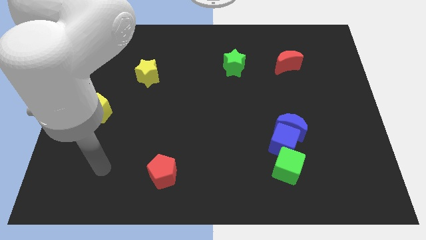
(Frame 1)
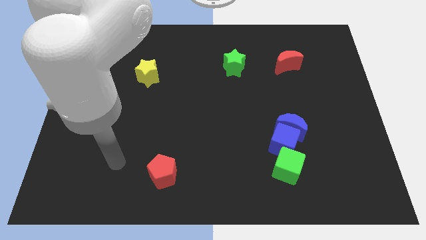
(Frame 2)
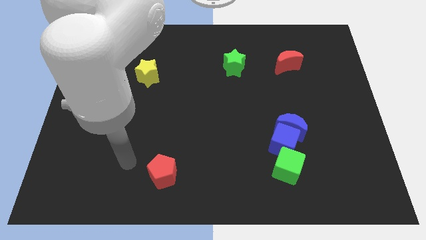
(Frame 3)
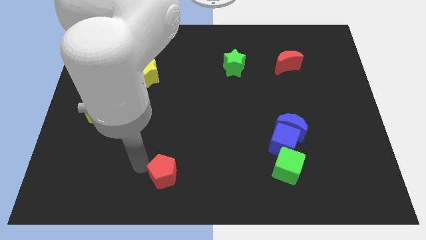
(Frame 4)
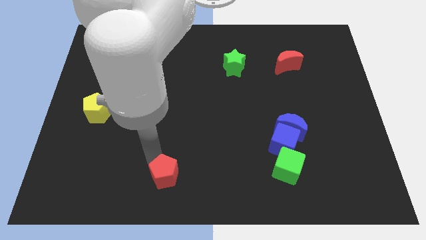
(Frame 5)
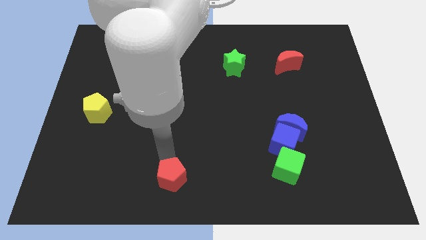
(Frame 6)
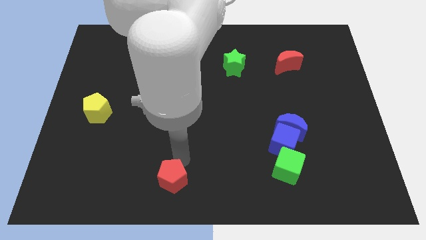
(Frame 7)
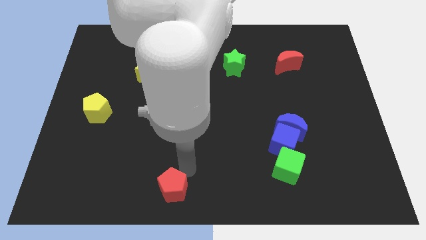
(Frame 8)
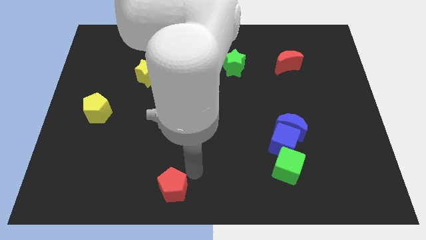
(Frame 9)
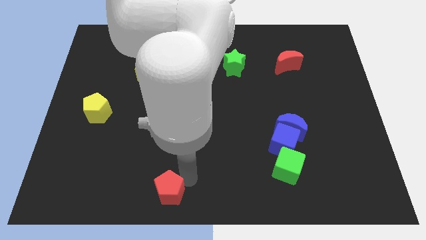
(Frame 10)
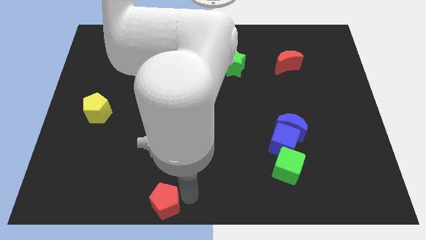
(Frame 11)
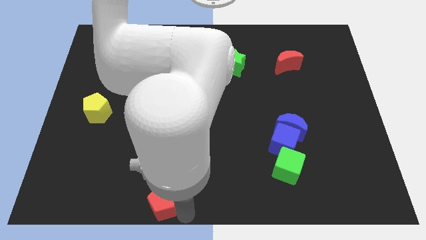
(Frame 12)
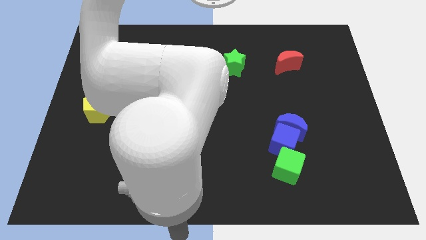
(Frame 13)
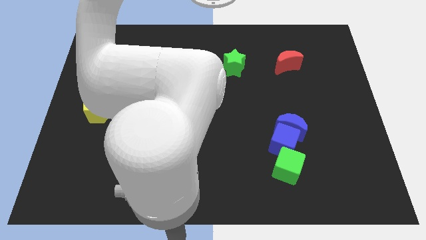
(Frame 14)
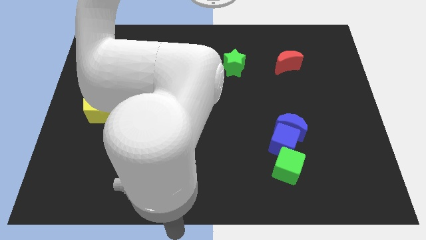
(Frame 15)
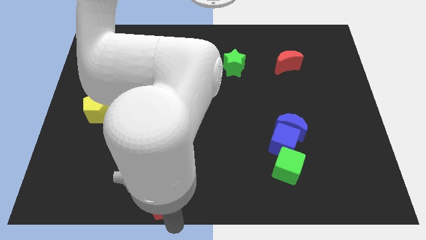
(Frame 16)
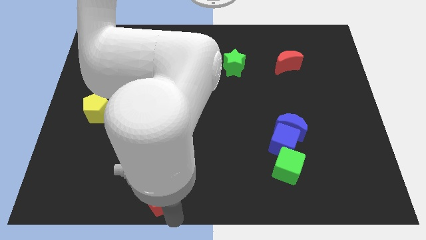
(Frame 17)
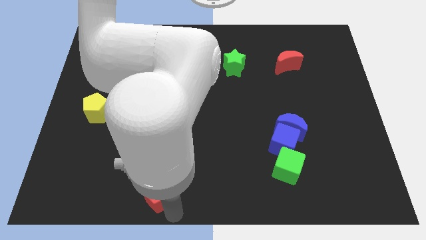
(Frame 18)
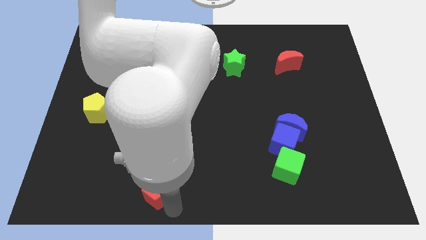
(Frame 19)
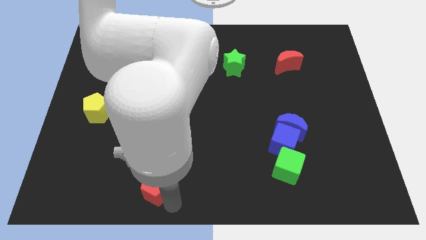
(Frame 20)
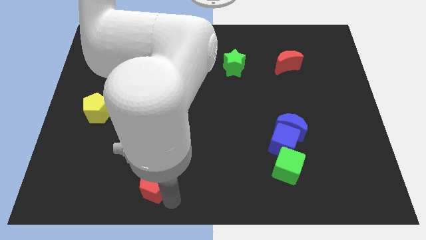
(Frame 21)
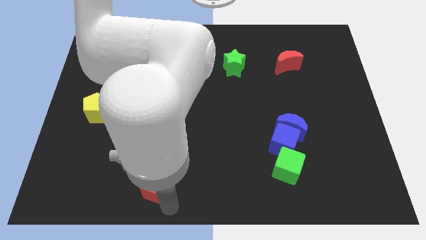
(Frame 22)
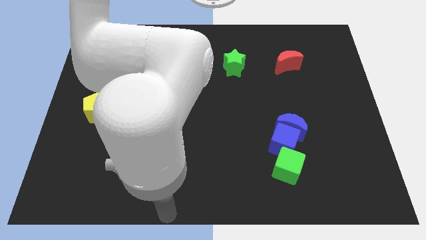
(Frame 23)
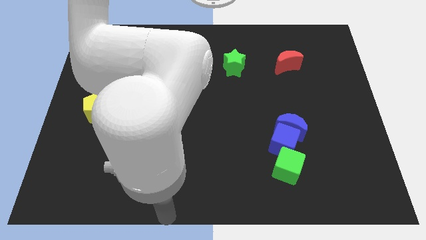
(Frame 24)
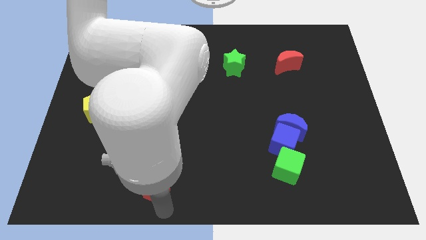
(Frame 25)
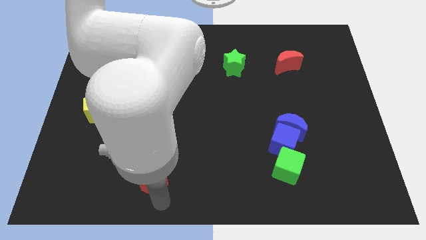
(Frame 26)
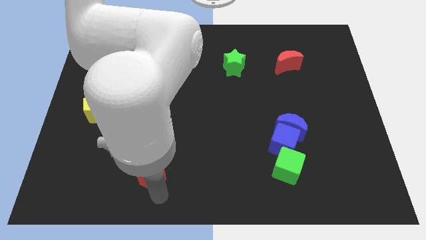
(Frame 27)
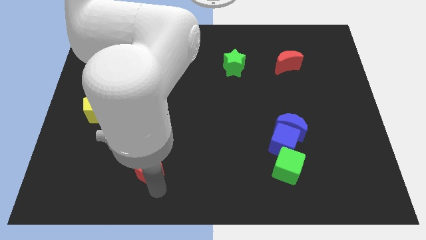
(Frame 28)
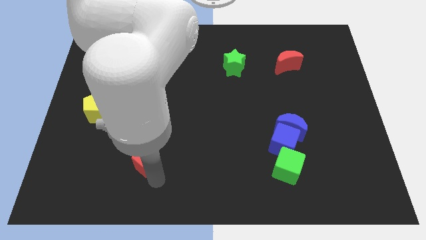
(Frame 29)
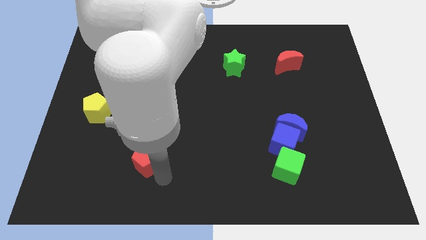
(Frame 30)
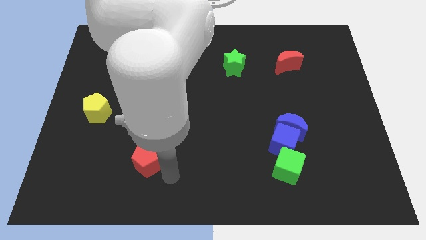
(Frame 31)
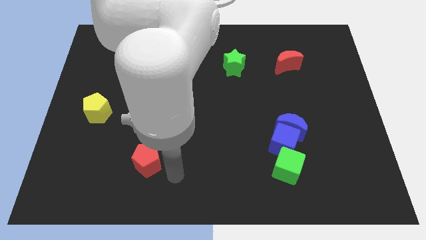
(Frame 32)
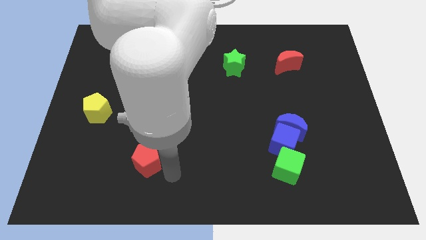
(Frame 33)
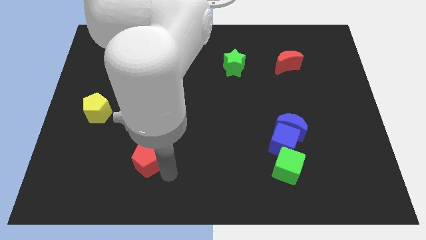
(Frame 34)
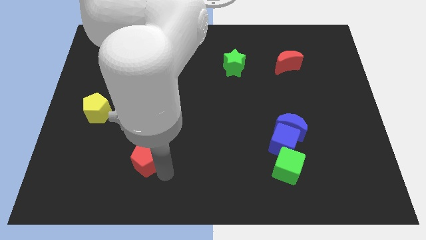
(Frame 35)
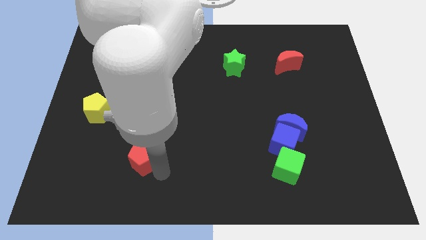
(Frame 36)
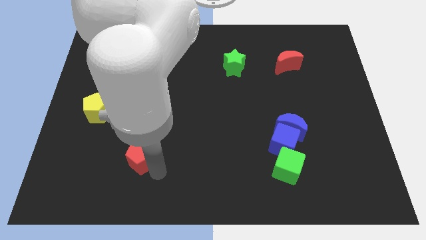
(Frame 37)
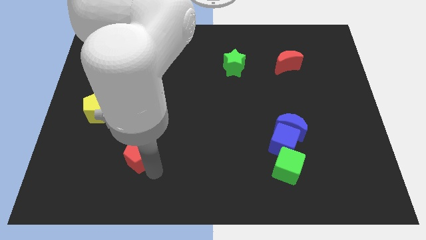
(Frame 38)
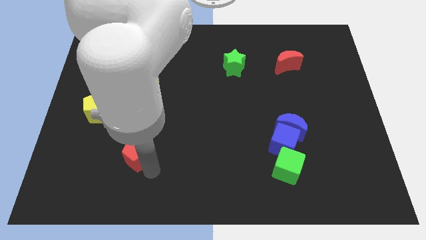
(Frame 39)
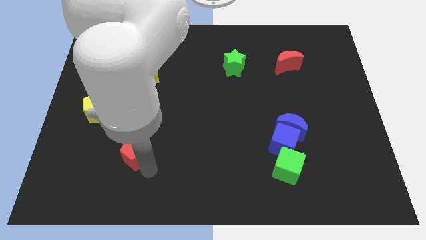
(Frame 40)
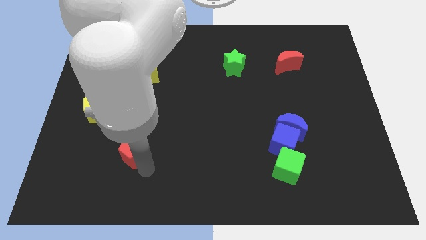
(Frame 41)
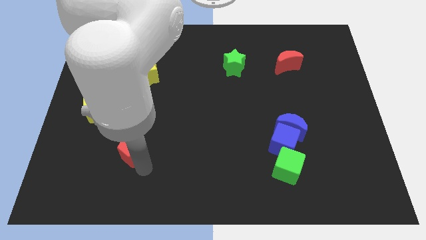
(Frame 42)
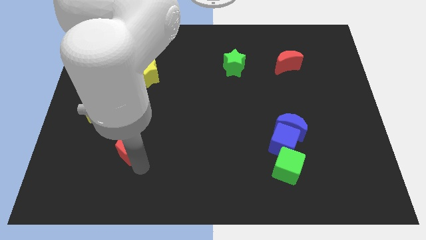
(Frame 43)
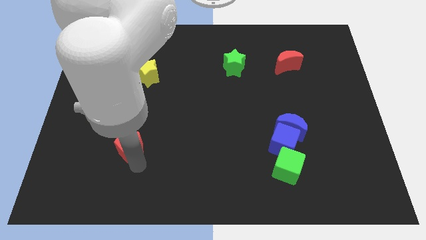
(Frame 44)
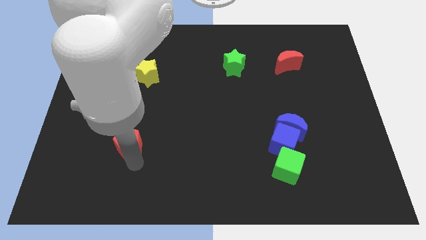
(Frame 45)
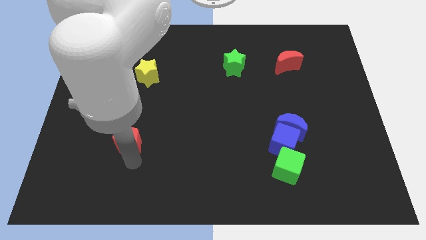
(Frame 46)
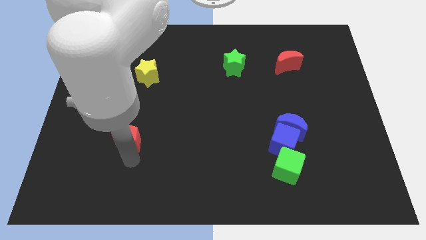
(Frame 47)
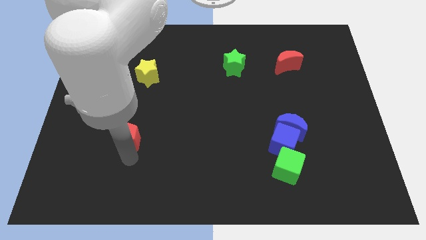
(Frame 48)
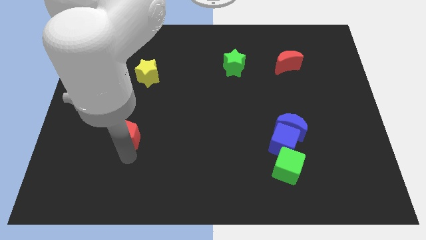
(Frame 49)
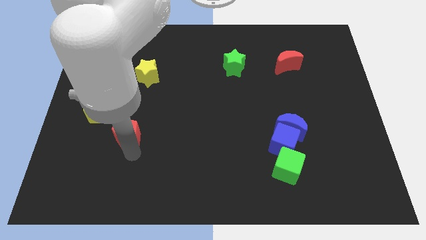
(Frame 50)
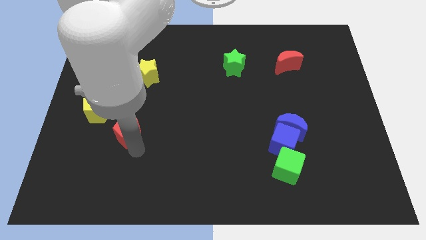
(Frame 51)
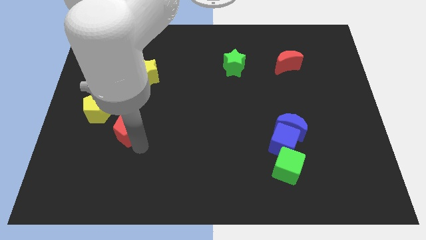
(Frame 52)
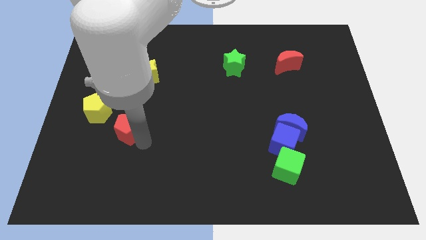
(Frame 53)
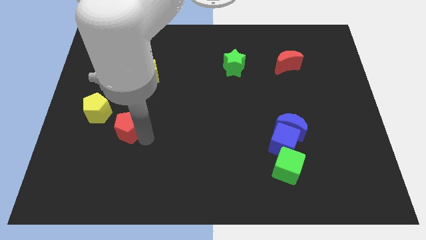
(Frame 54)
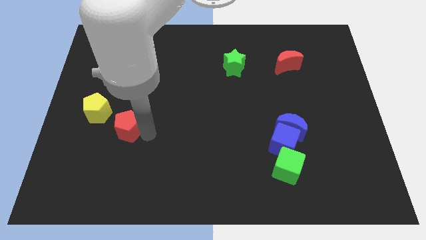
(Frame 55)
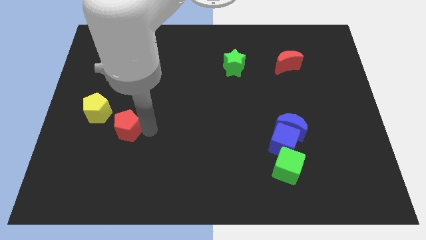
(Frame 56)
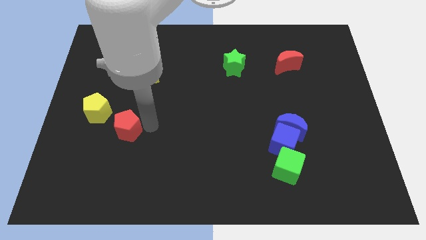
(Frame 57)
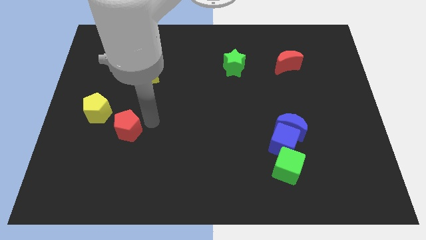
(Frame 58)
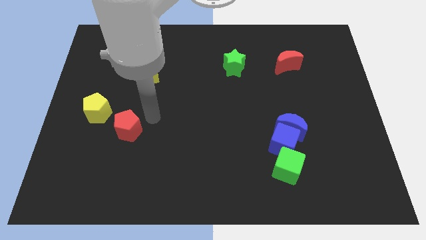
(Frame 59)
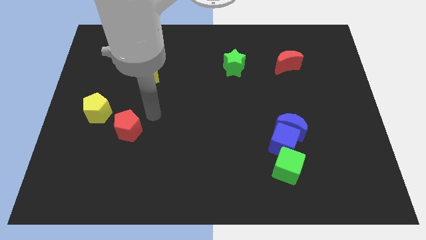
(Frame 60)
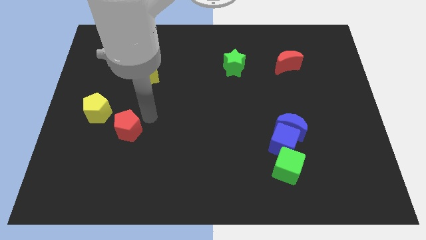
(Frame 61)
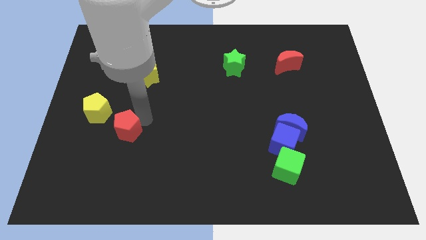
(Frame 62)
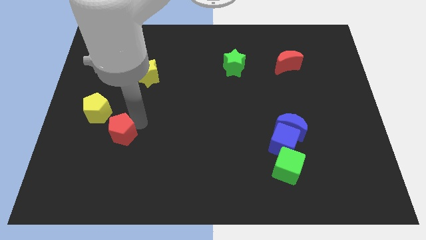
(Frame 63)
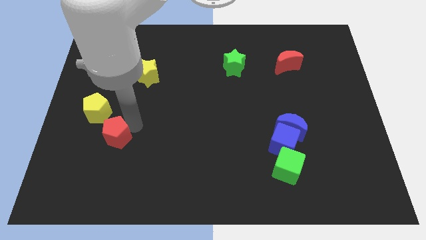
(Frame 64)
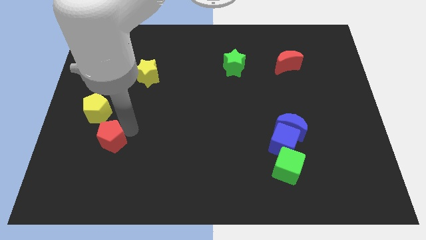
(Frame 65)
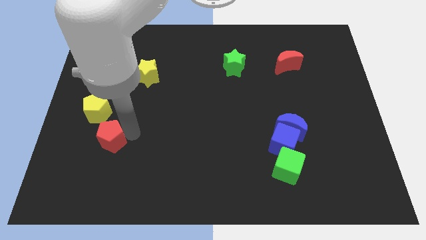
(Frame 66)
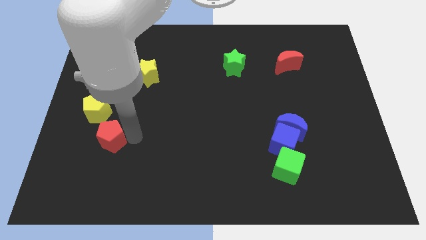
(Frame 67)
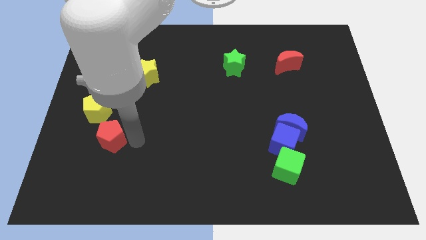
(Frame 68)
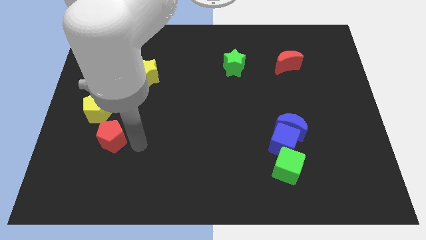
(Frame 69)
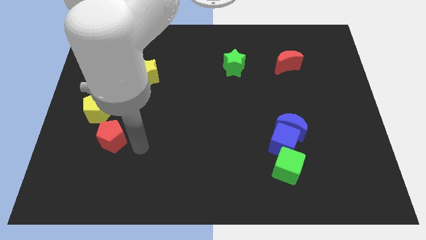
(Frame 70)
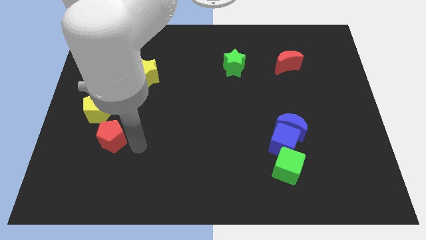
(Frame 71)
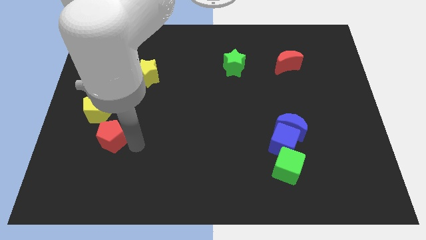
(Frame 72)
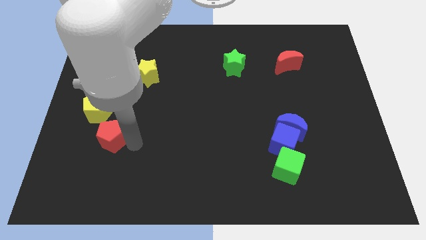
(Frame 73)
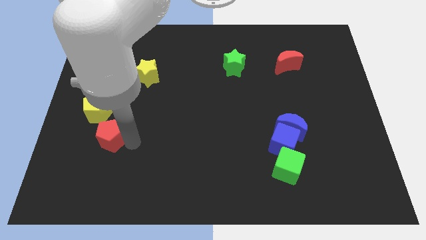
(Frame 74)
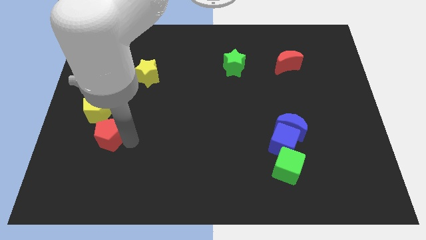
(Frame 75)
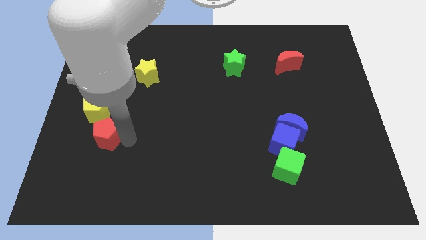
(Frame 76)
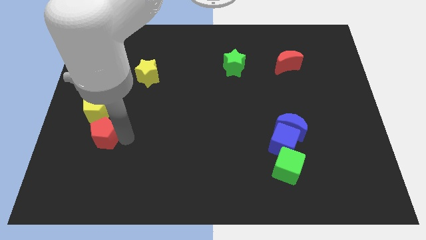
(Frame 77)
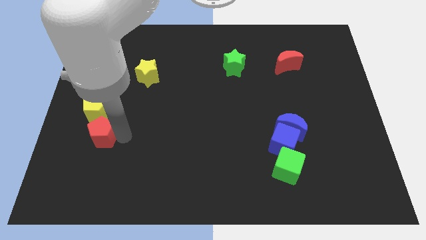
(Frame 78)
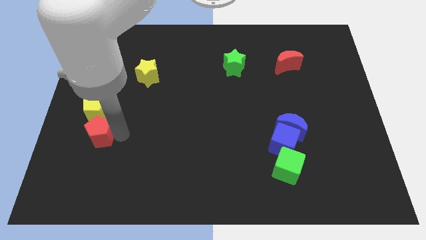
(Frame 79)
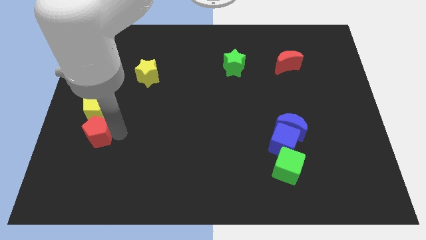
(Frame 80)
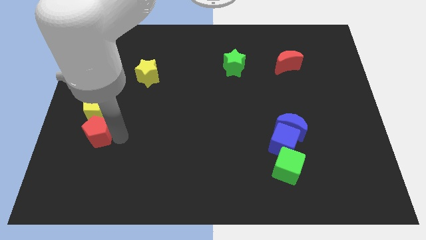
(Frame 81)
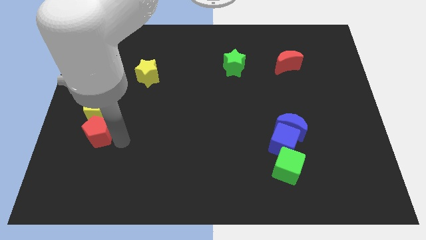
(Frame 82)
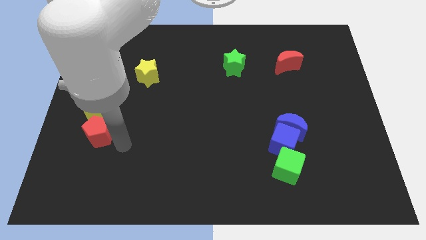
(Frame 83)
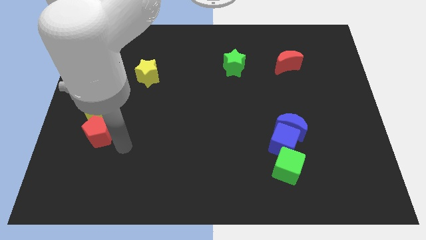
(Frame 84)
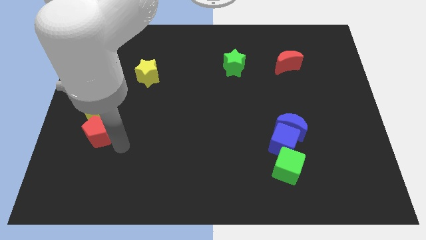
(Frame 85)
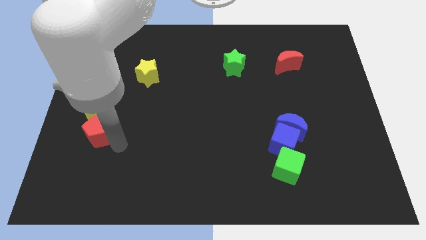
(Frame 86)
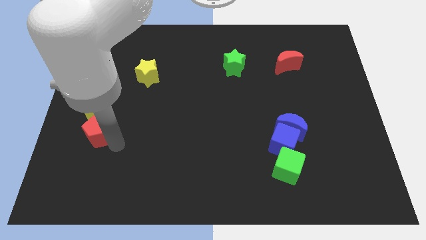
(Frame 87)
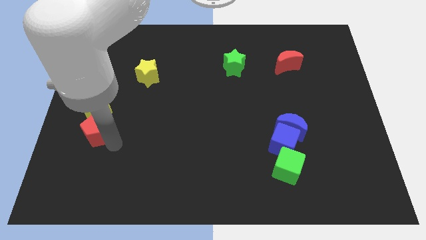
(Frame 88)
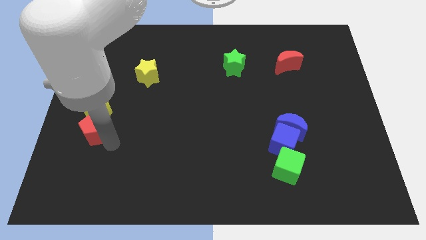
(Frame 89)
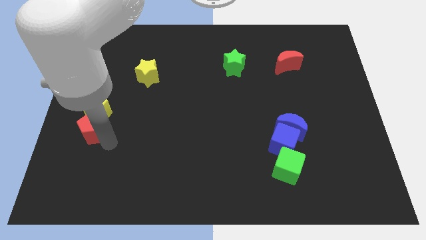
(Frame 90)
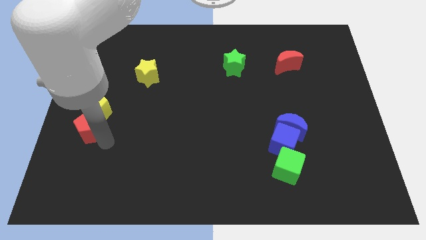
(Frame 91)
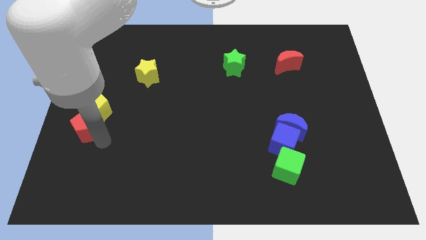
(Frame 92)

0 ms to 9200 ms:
push the red pentagon to the center left
